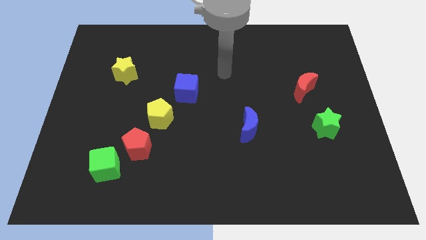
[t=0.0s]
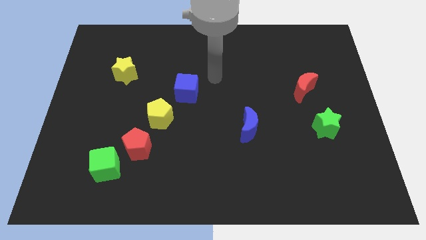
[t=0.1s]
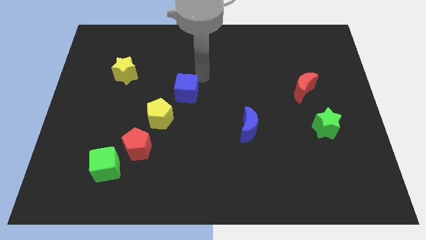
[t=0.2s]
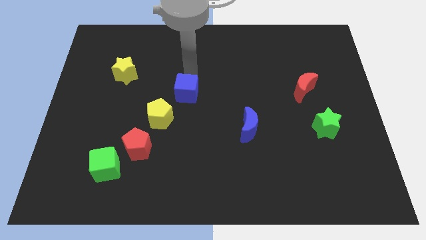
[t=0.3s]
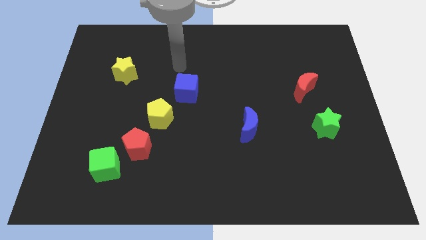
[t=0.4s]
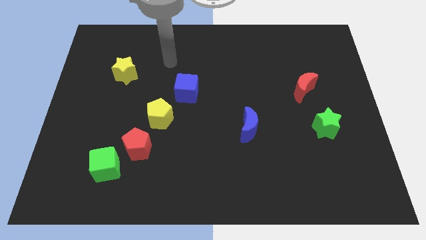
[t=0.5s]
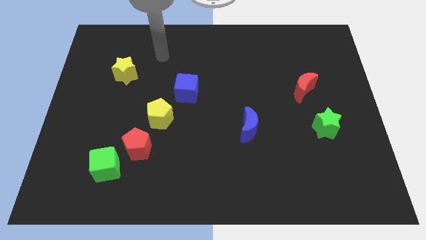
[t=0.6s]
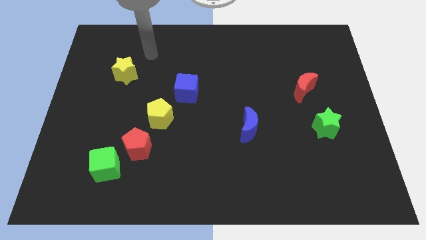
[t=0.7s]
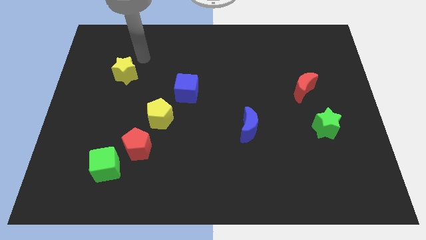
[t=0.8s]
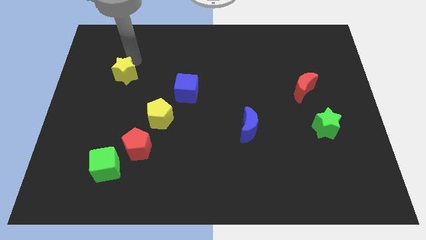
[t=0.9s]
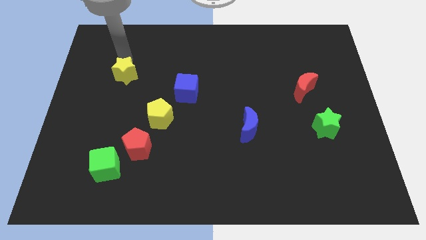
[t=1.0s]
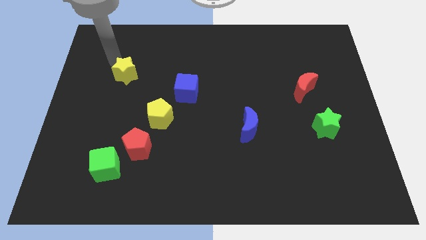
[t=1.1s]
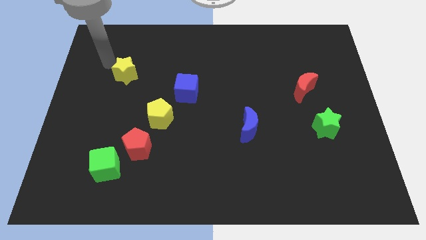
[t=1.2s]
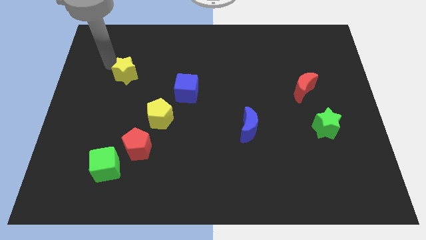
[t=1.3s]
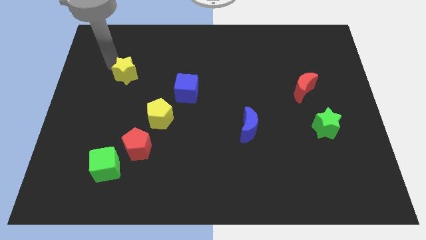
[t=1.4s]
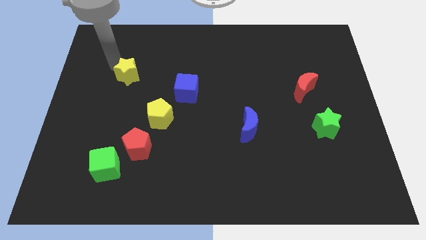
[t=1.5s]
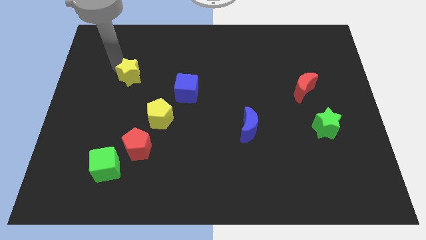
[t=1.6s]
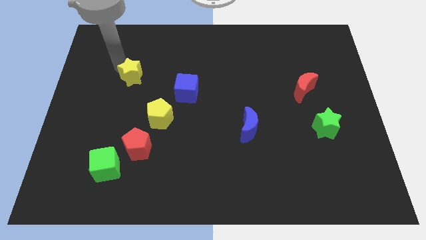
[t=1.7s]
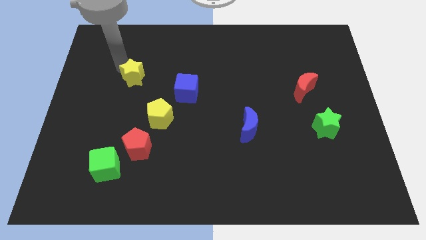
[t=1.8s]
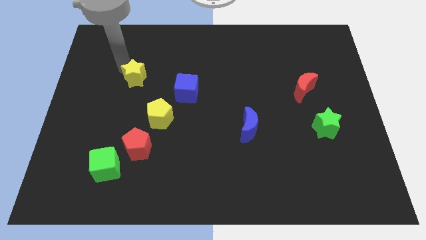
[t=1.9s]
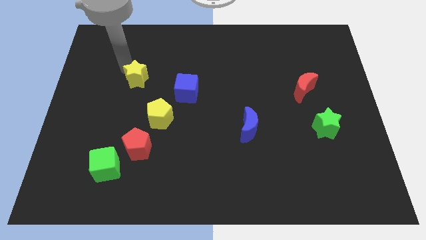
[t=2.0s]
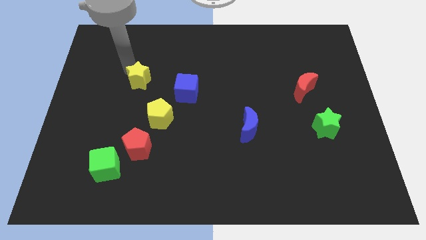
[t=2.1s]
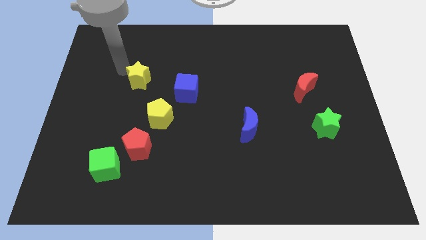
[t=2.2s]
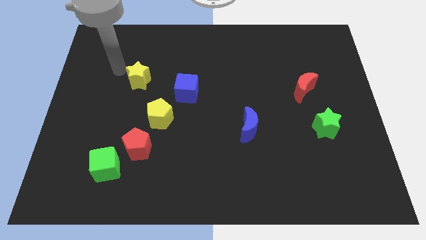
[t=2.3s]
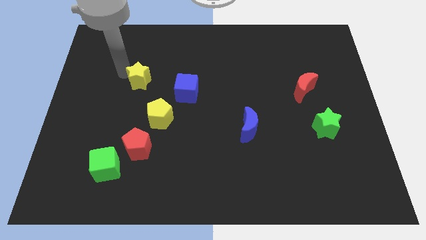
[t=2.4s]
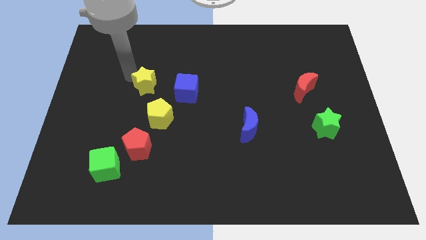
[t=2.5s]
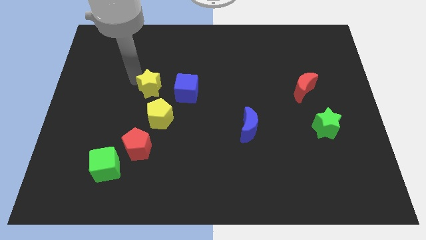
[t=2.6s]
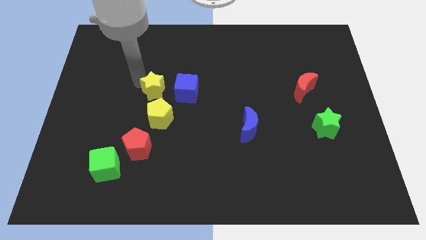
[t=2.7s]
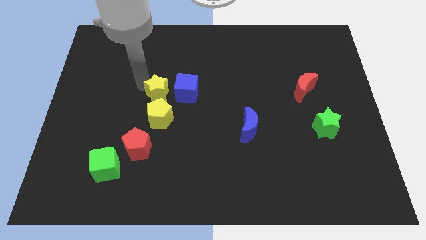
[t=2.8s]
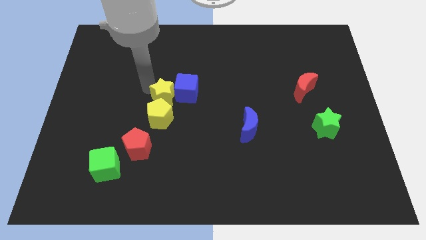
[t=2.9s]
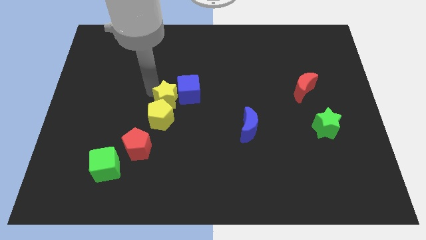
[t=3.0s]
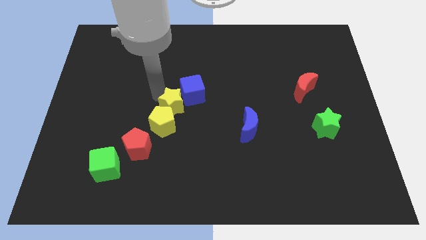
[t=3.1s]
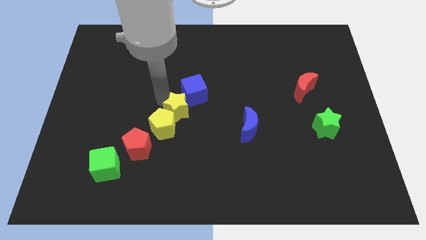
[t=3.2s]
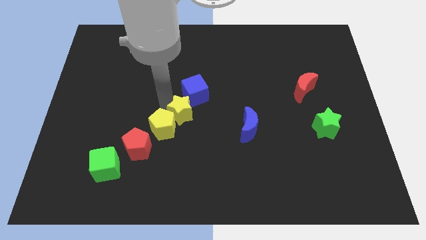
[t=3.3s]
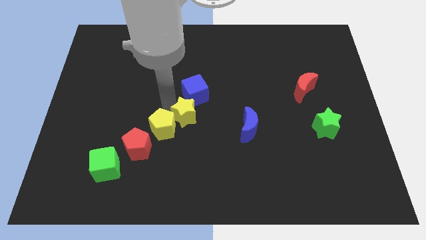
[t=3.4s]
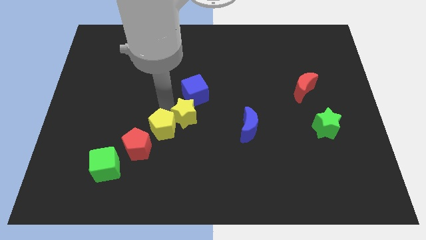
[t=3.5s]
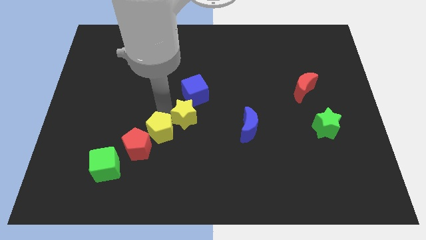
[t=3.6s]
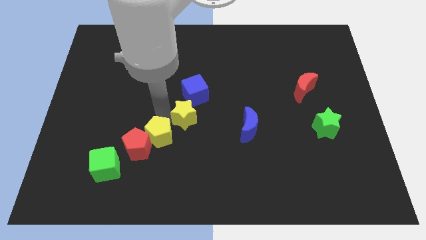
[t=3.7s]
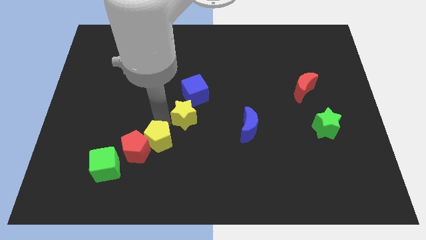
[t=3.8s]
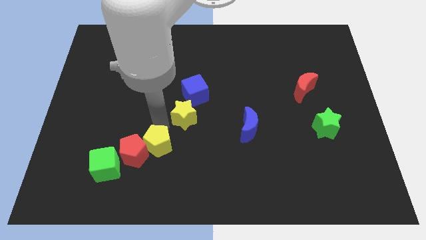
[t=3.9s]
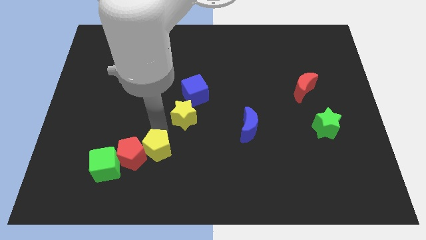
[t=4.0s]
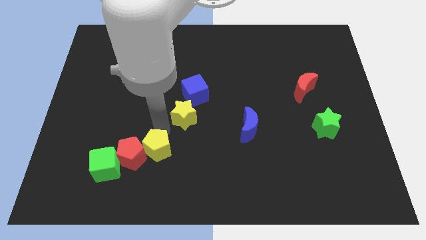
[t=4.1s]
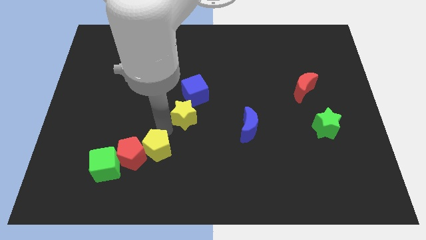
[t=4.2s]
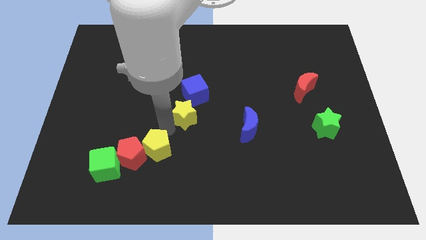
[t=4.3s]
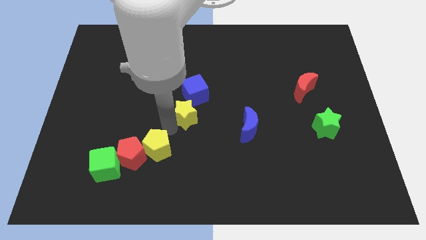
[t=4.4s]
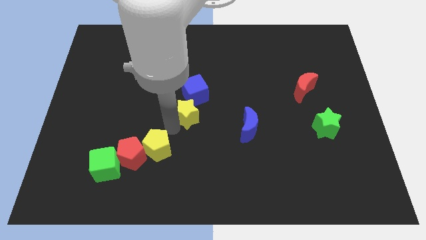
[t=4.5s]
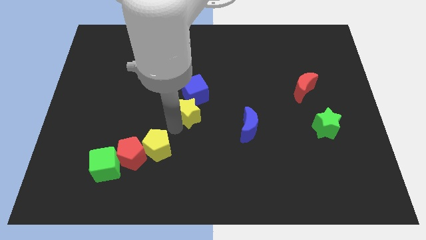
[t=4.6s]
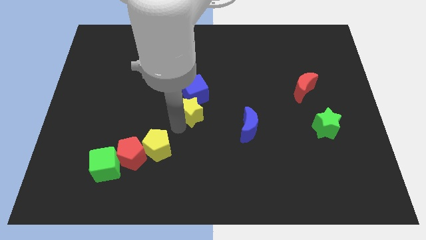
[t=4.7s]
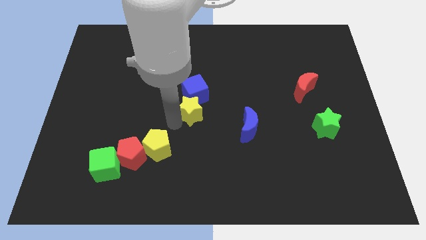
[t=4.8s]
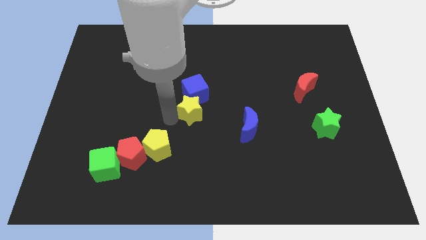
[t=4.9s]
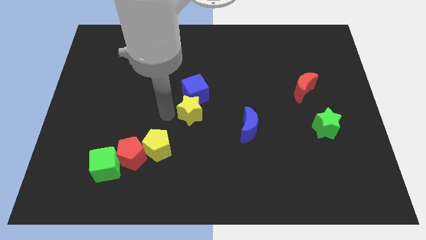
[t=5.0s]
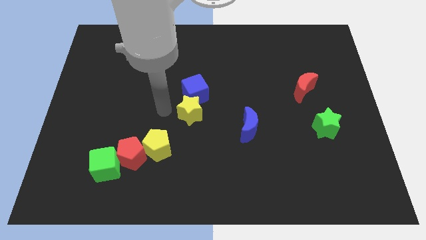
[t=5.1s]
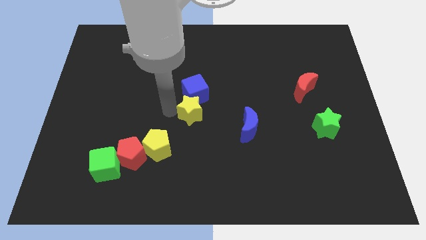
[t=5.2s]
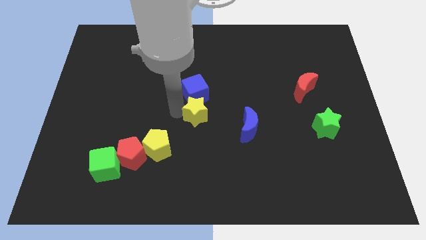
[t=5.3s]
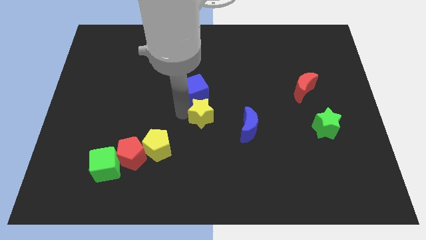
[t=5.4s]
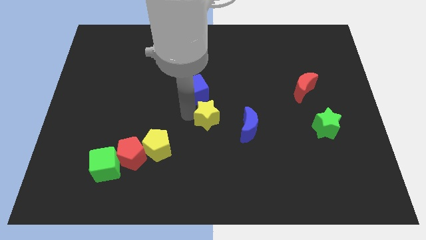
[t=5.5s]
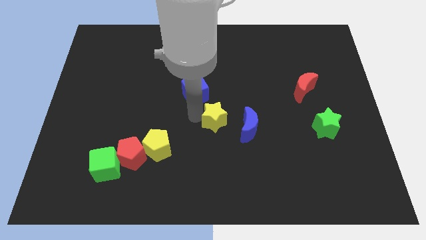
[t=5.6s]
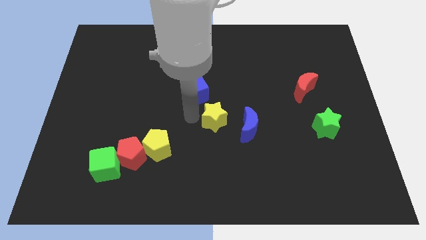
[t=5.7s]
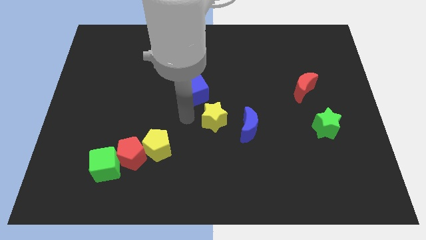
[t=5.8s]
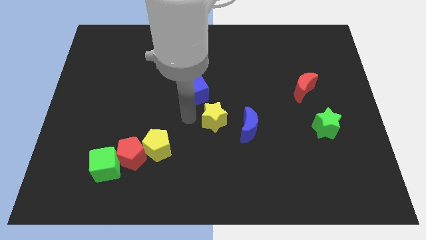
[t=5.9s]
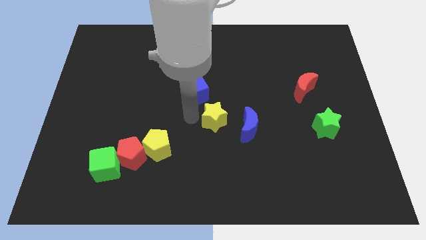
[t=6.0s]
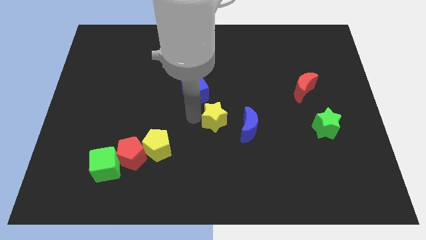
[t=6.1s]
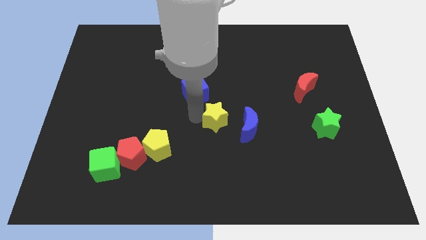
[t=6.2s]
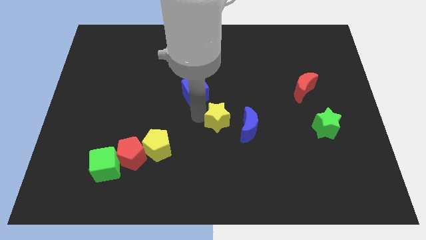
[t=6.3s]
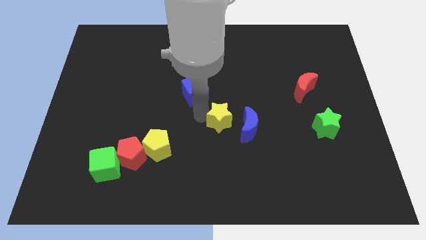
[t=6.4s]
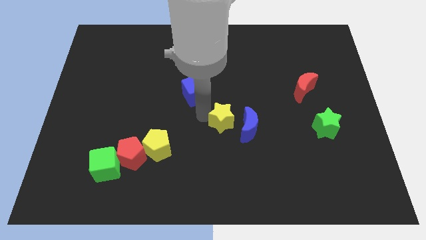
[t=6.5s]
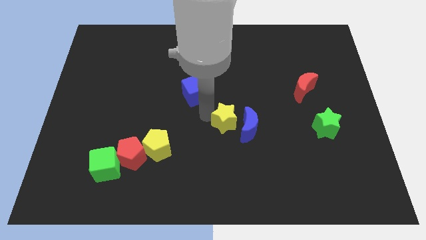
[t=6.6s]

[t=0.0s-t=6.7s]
push the yellow star close to the blue moon

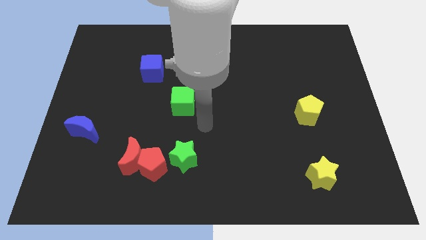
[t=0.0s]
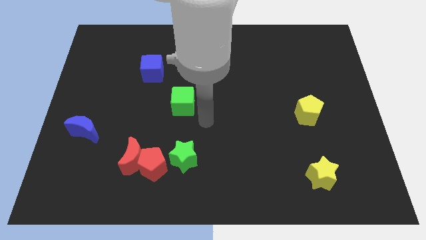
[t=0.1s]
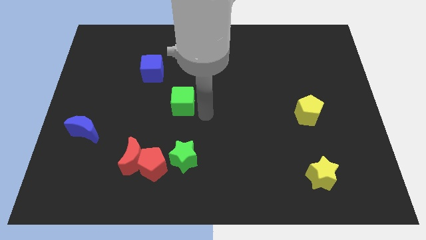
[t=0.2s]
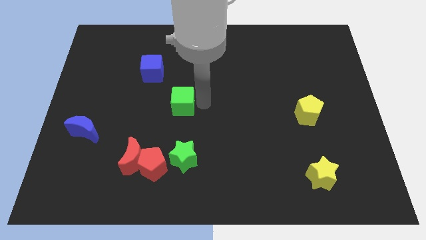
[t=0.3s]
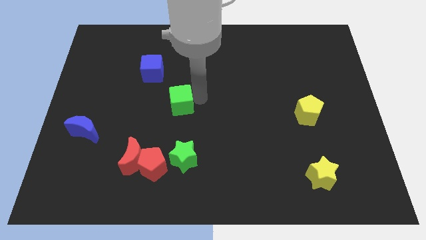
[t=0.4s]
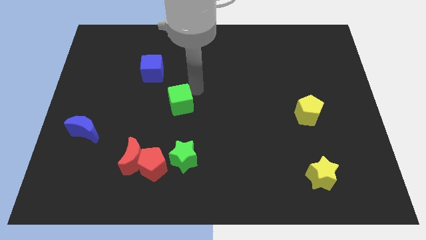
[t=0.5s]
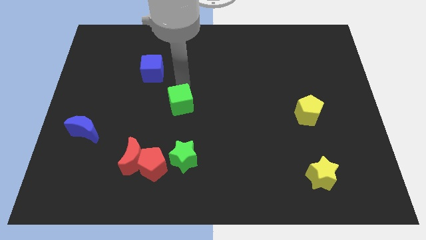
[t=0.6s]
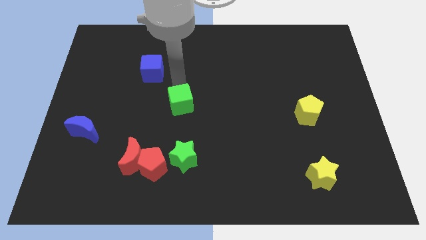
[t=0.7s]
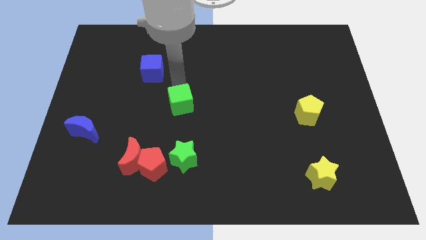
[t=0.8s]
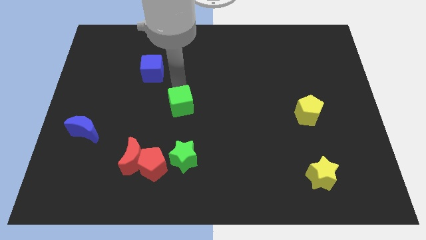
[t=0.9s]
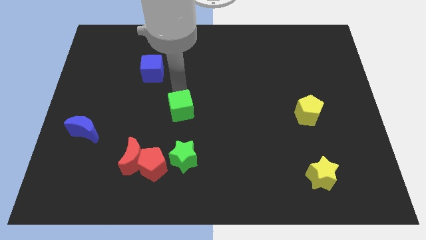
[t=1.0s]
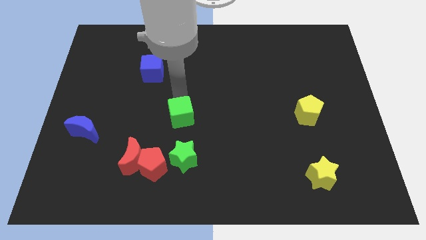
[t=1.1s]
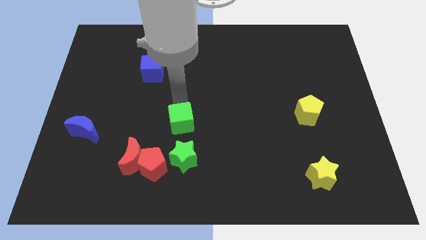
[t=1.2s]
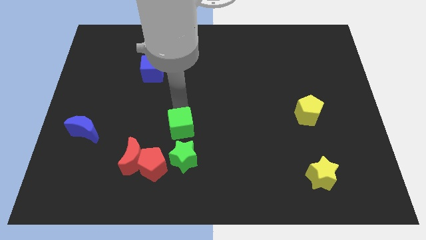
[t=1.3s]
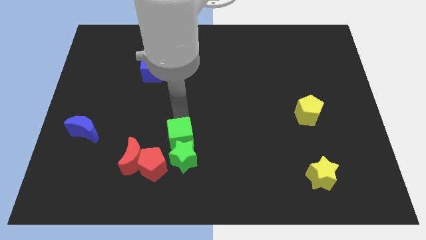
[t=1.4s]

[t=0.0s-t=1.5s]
move the green cube next to the green star
